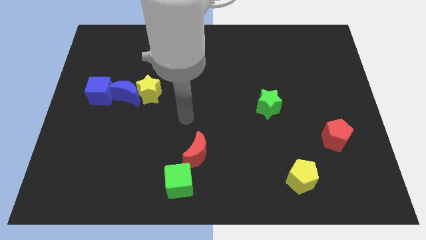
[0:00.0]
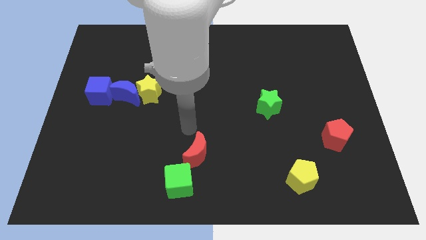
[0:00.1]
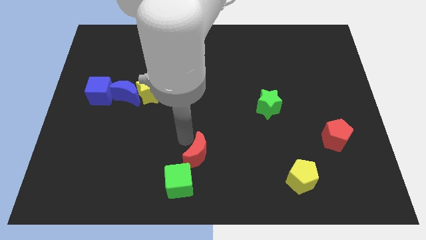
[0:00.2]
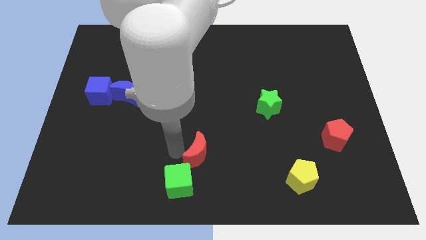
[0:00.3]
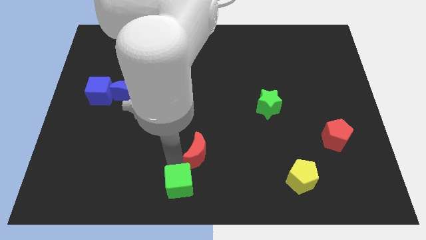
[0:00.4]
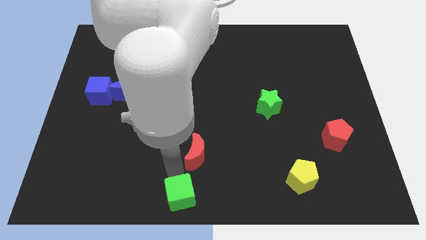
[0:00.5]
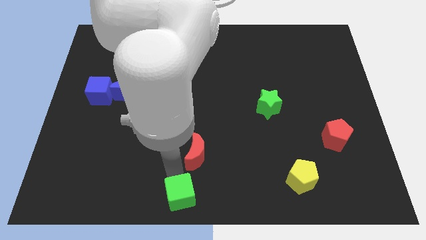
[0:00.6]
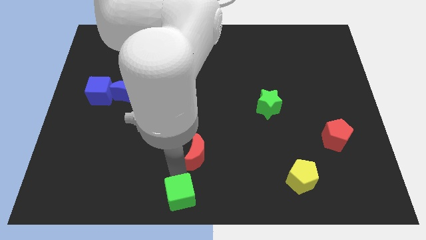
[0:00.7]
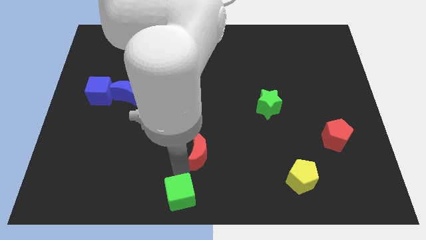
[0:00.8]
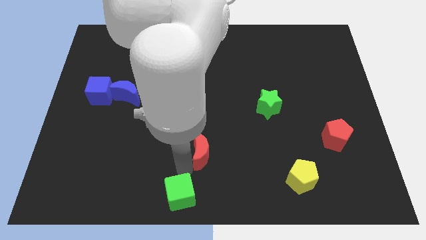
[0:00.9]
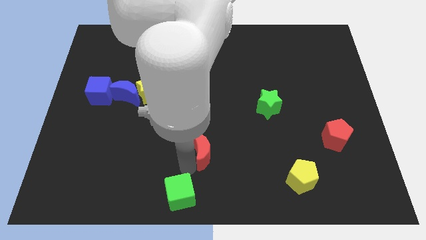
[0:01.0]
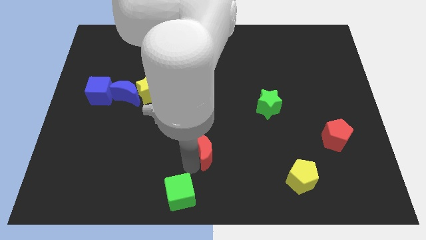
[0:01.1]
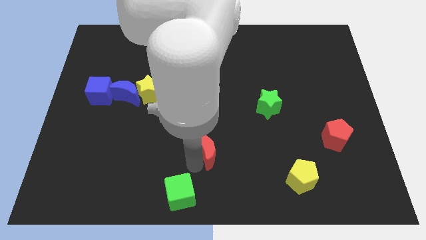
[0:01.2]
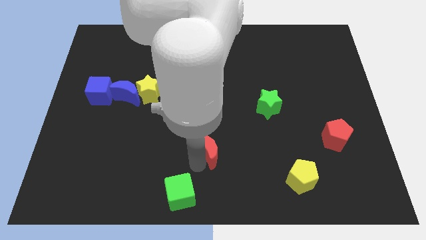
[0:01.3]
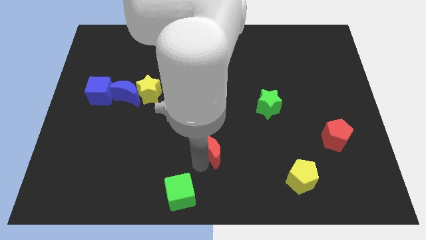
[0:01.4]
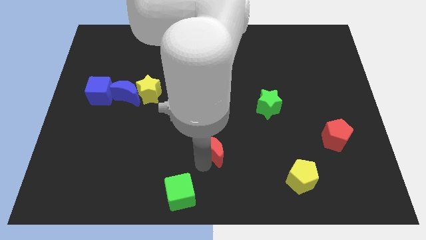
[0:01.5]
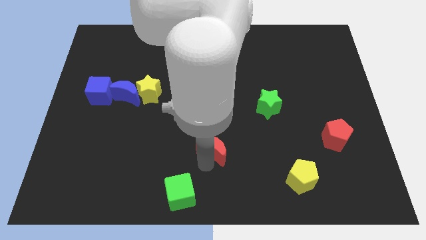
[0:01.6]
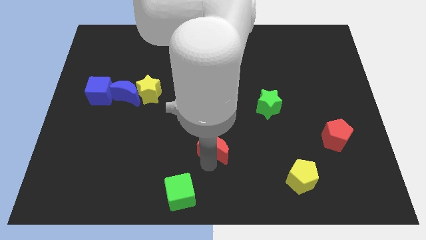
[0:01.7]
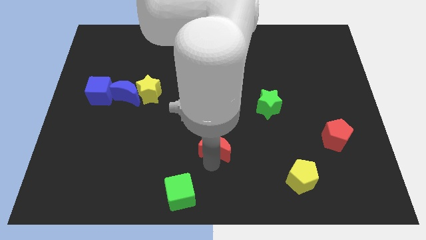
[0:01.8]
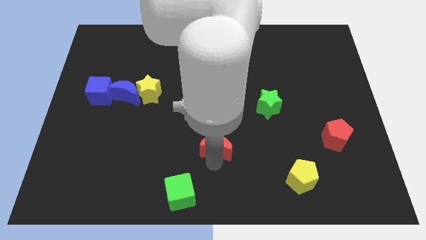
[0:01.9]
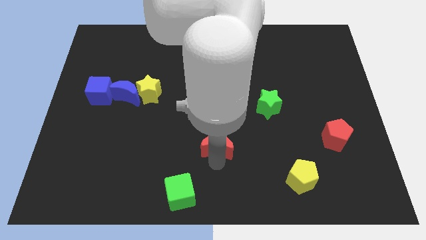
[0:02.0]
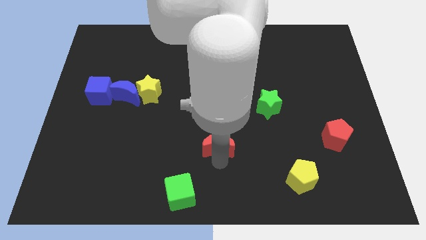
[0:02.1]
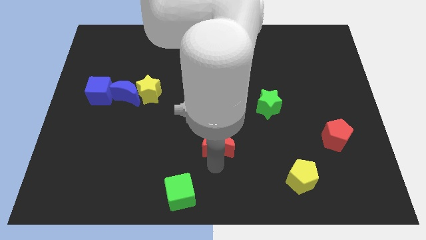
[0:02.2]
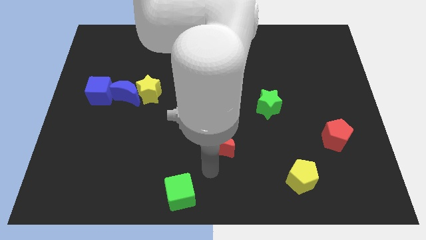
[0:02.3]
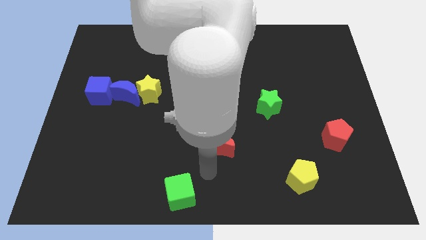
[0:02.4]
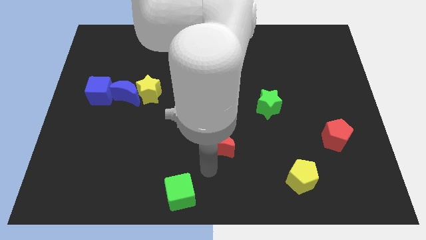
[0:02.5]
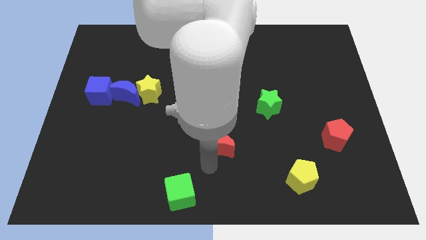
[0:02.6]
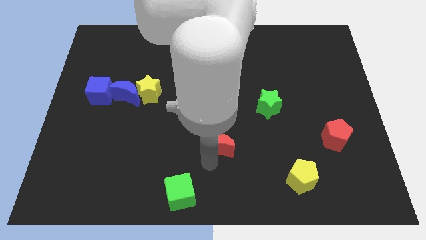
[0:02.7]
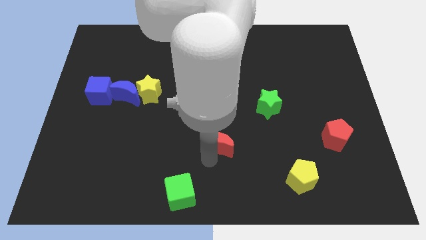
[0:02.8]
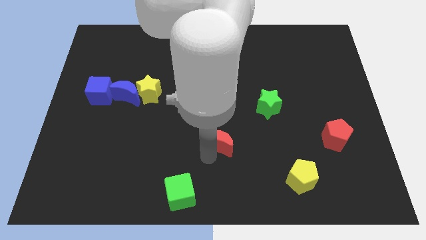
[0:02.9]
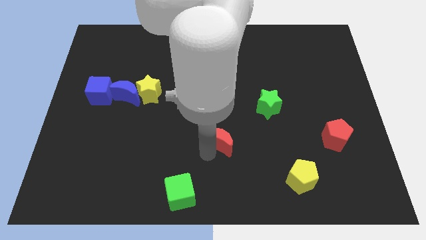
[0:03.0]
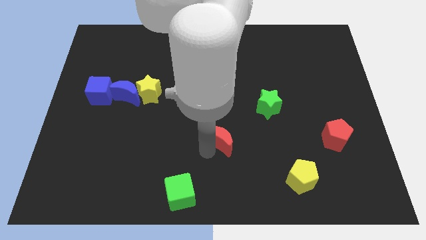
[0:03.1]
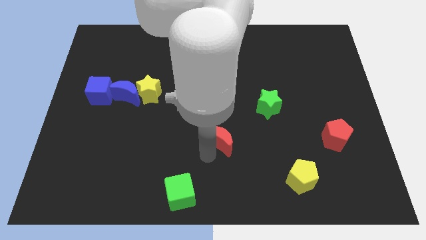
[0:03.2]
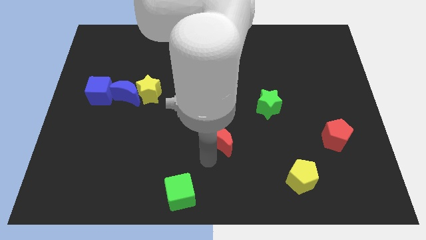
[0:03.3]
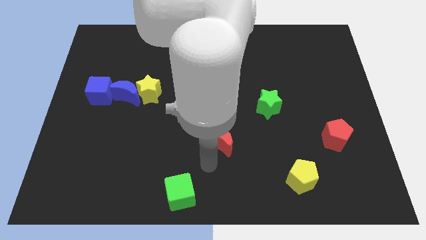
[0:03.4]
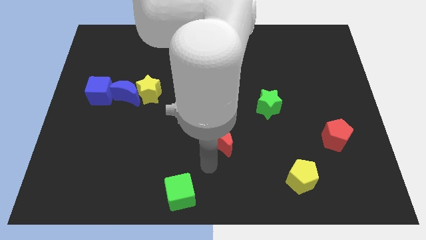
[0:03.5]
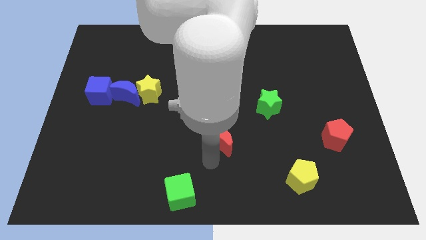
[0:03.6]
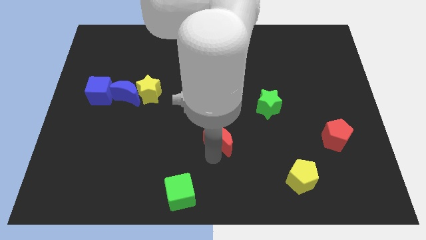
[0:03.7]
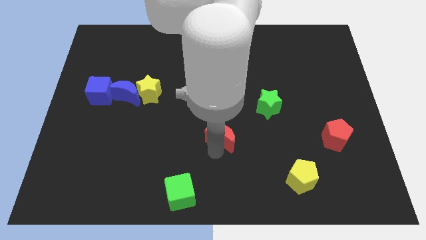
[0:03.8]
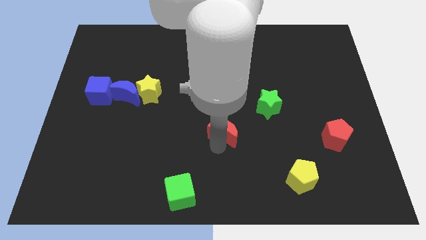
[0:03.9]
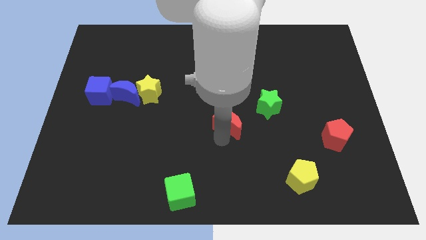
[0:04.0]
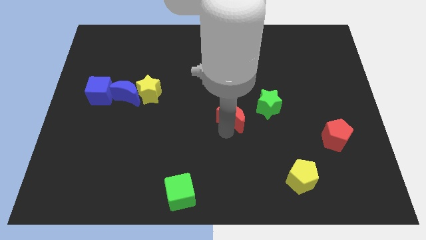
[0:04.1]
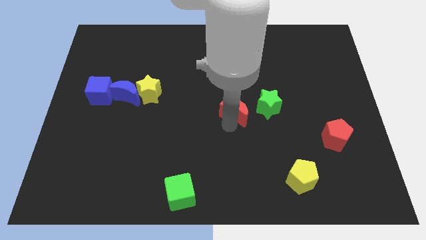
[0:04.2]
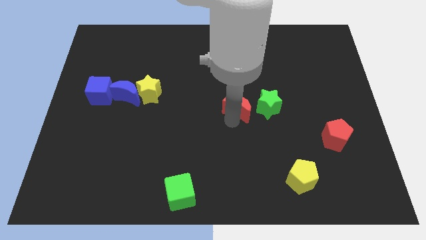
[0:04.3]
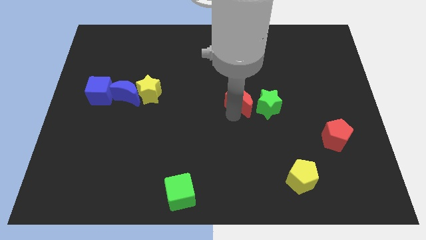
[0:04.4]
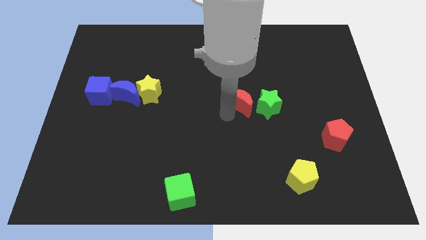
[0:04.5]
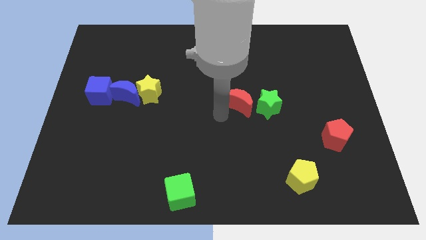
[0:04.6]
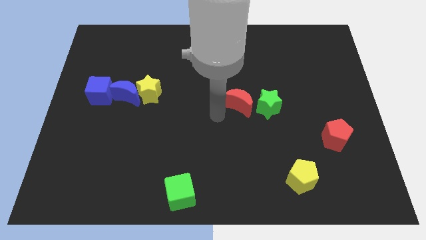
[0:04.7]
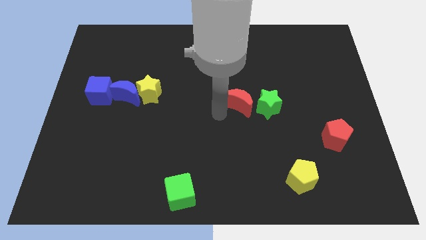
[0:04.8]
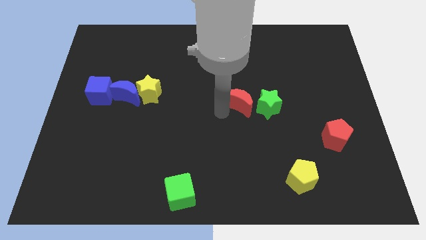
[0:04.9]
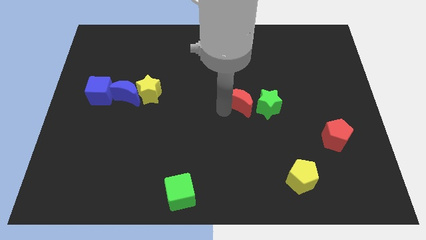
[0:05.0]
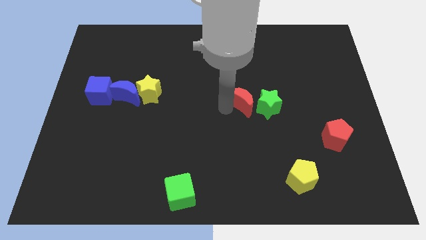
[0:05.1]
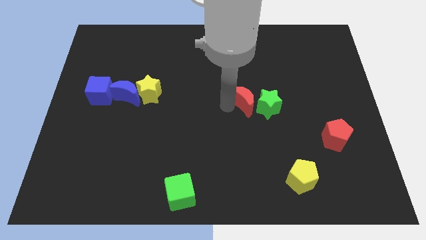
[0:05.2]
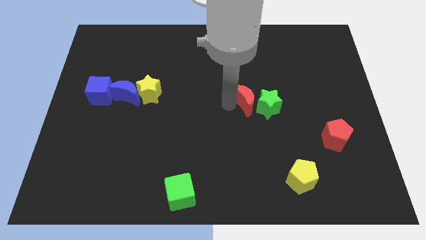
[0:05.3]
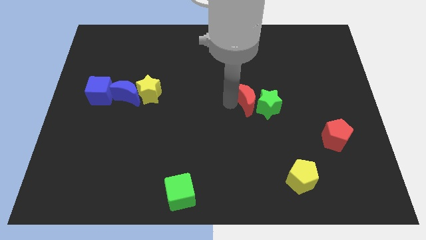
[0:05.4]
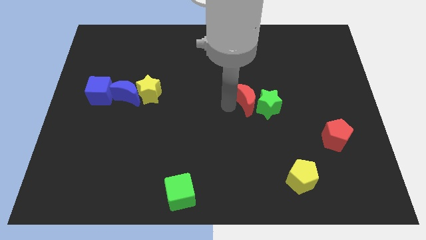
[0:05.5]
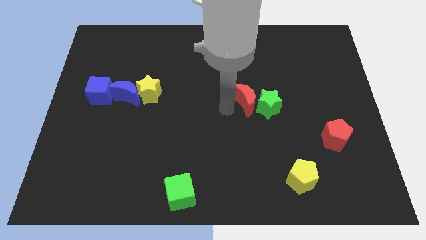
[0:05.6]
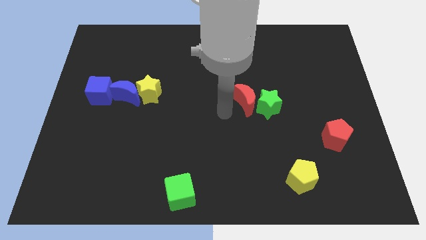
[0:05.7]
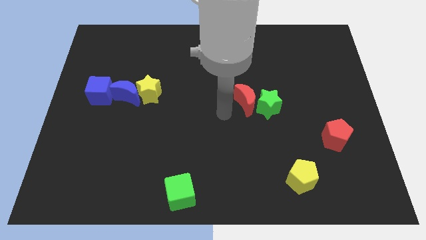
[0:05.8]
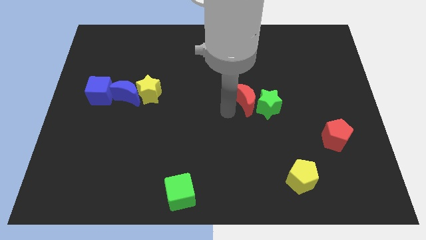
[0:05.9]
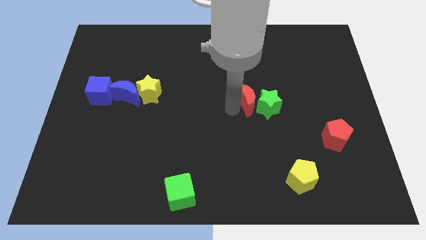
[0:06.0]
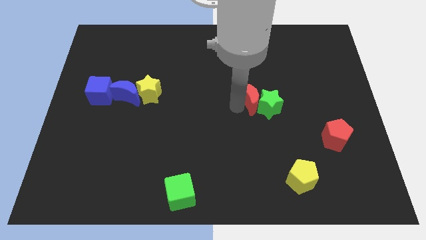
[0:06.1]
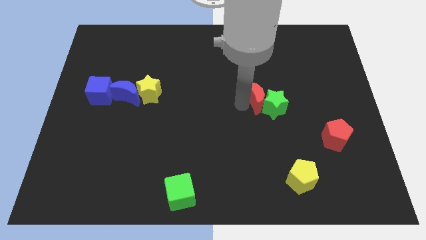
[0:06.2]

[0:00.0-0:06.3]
push the red moon up and right diagonally

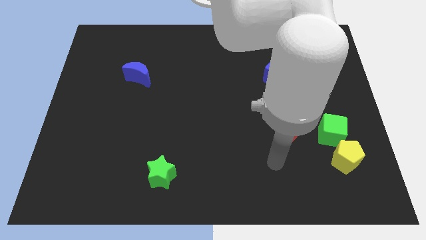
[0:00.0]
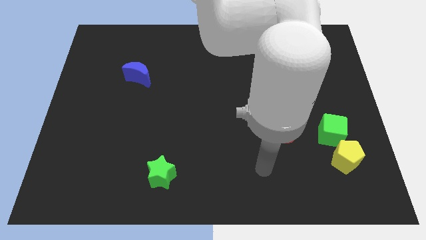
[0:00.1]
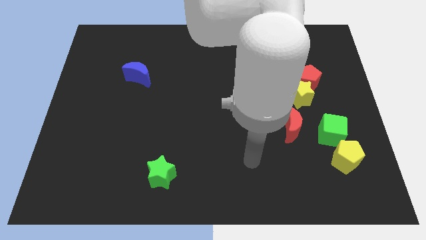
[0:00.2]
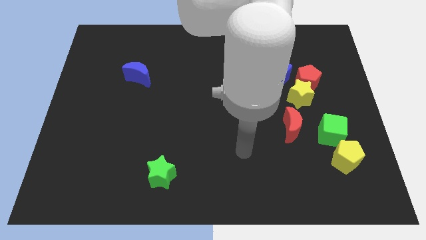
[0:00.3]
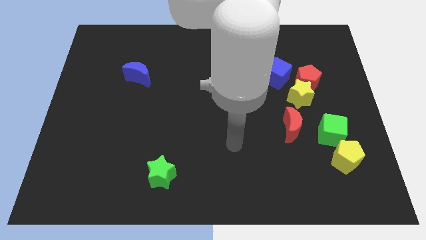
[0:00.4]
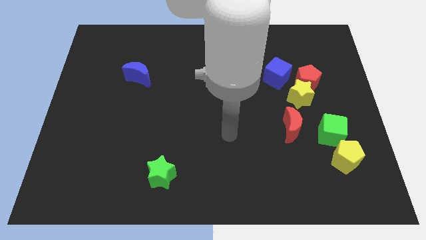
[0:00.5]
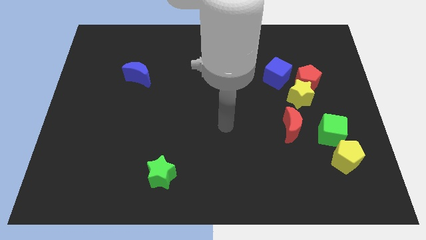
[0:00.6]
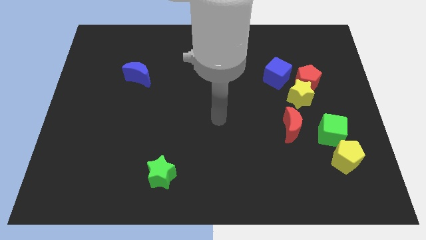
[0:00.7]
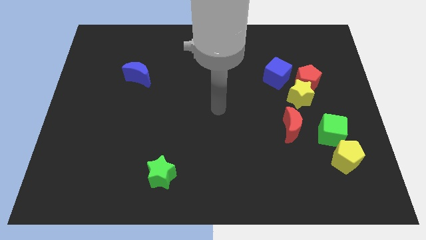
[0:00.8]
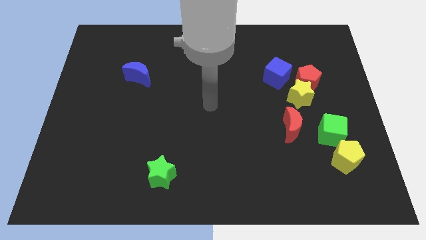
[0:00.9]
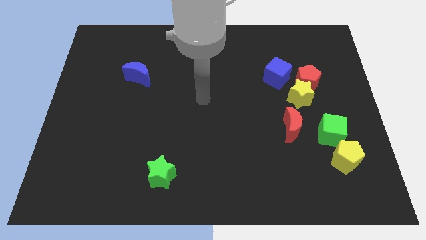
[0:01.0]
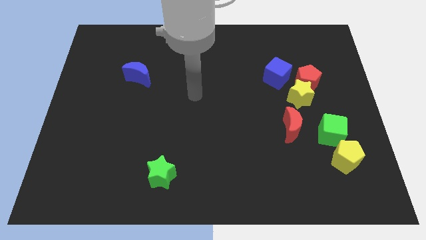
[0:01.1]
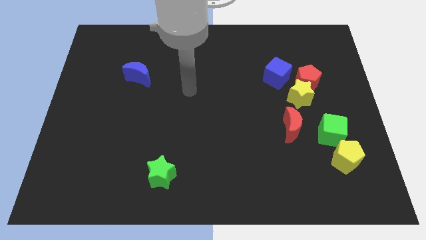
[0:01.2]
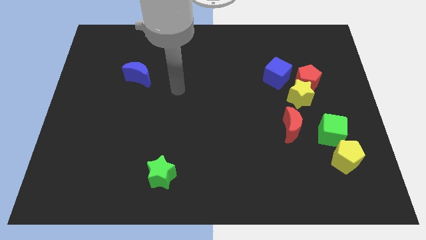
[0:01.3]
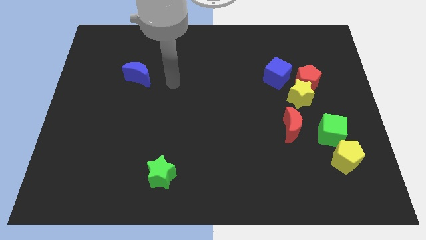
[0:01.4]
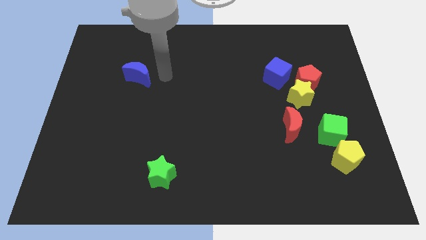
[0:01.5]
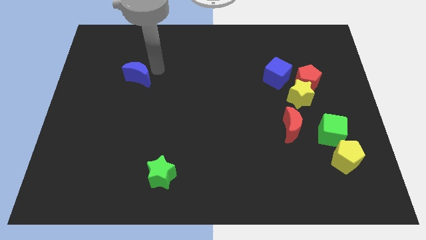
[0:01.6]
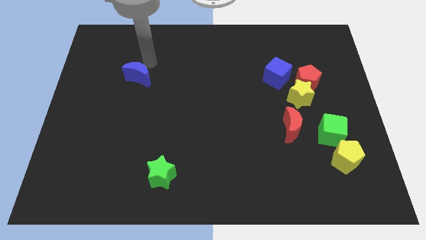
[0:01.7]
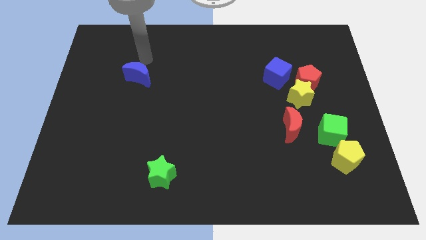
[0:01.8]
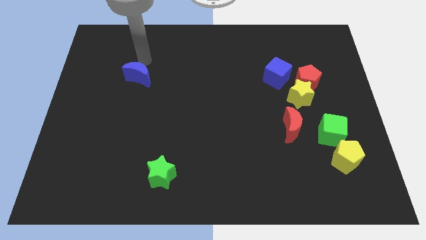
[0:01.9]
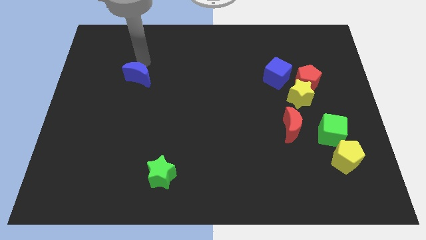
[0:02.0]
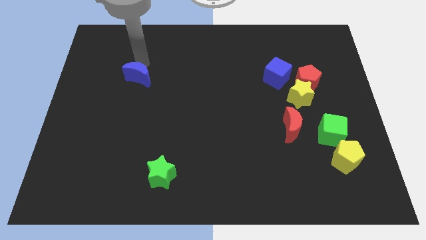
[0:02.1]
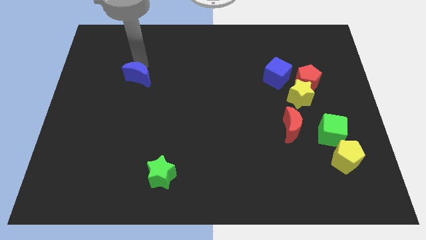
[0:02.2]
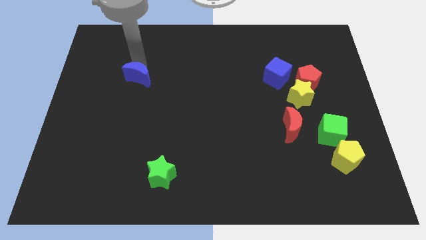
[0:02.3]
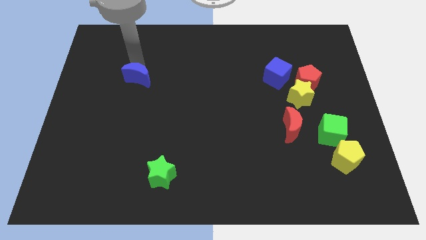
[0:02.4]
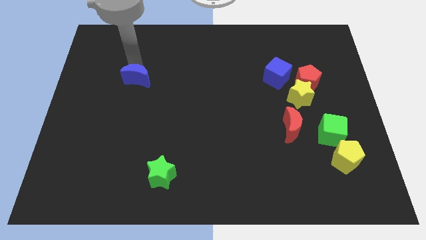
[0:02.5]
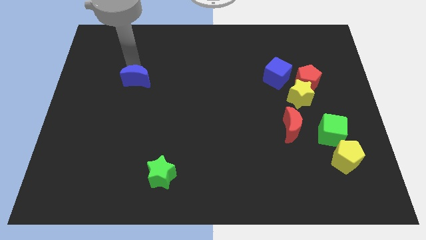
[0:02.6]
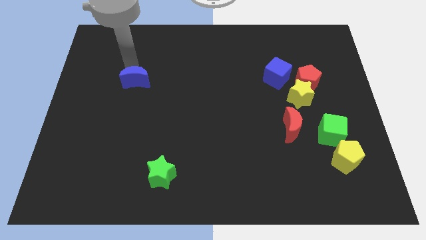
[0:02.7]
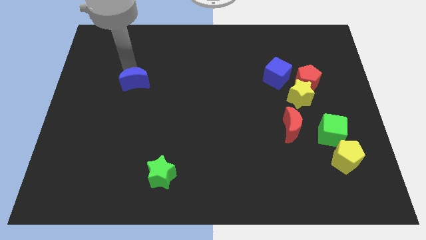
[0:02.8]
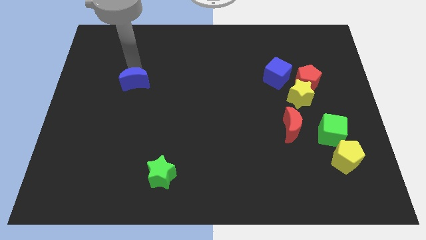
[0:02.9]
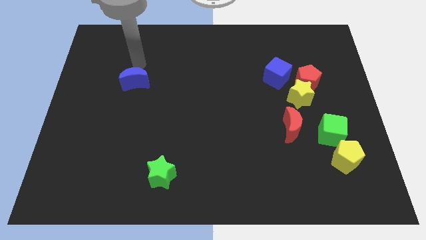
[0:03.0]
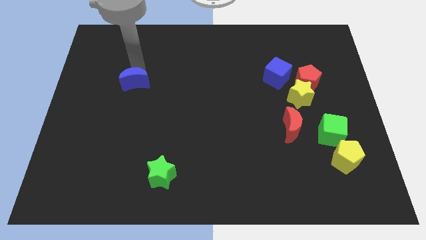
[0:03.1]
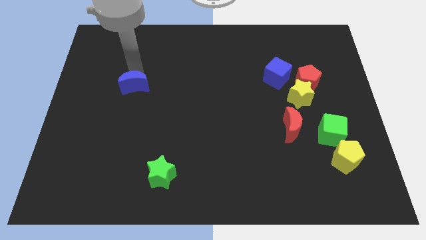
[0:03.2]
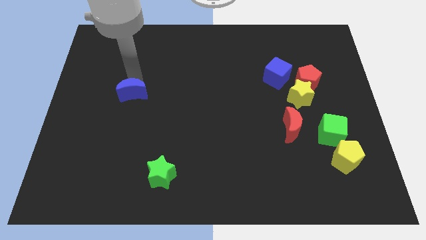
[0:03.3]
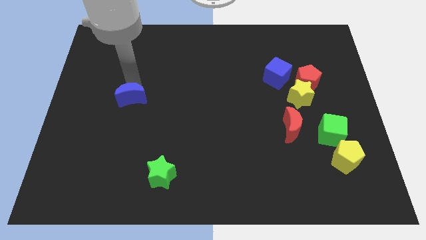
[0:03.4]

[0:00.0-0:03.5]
slide the blue moon downwards somewhat
